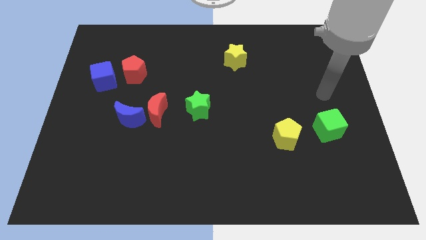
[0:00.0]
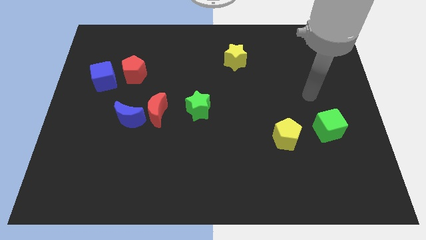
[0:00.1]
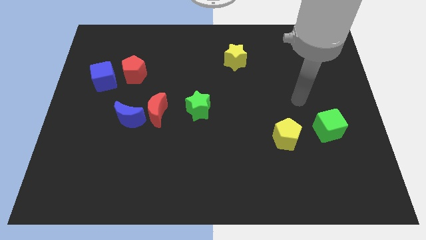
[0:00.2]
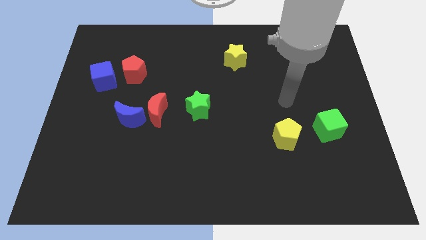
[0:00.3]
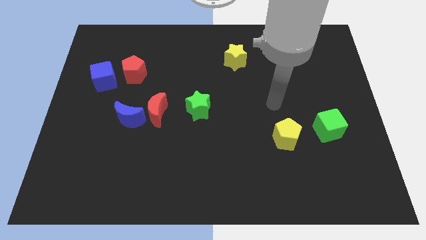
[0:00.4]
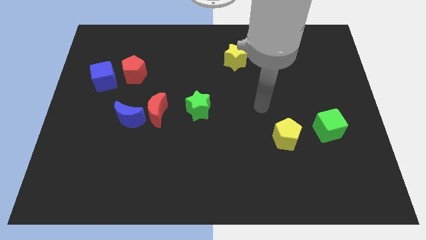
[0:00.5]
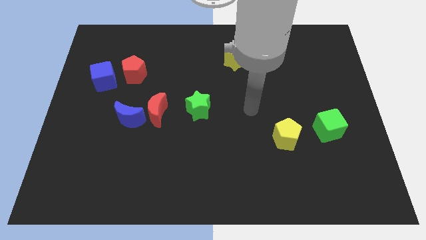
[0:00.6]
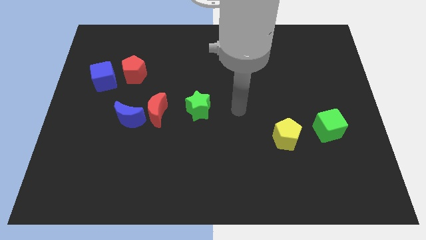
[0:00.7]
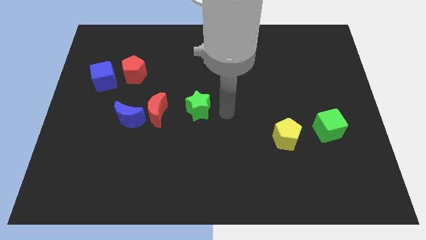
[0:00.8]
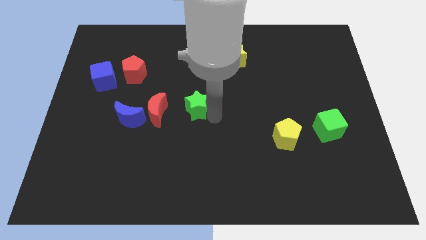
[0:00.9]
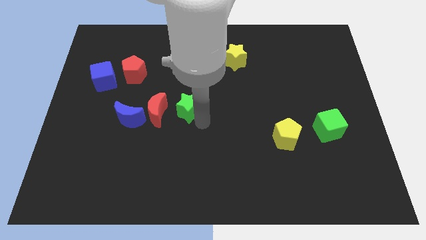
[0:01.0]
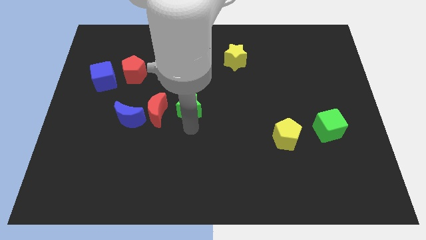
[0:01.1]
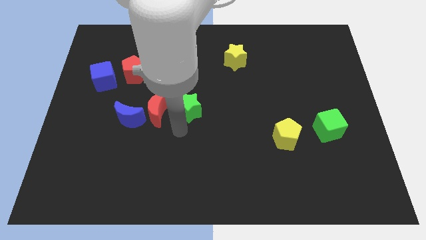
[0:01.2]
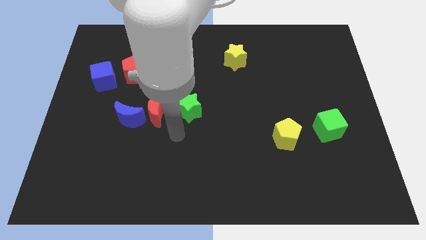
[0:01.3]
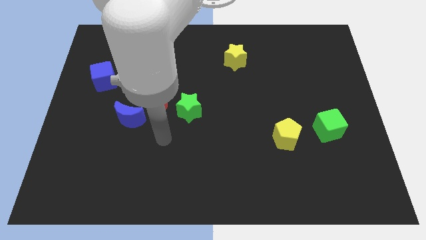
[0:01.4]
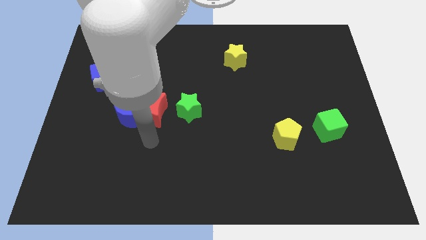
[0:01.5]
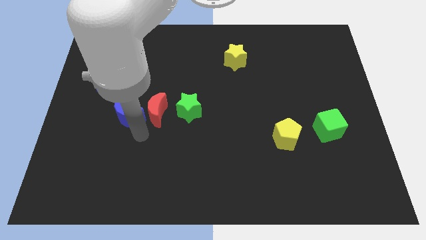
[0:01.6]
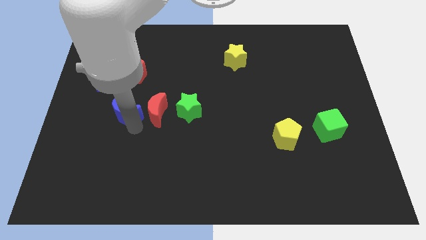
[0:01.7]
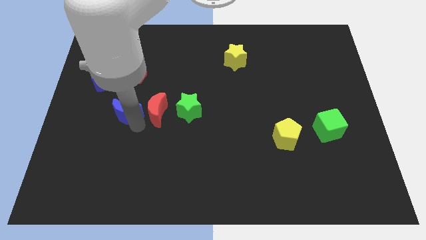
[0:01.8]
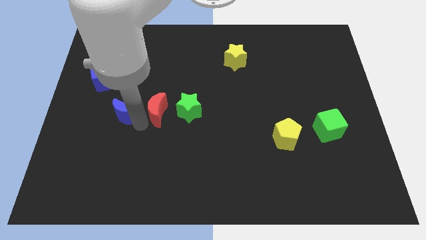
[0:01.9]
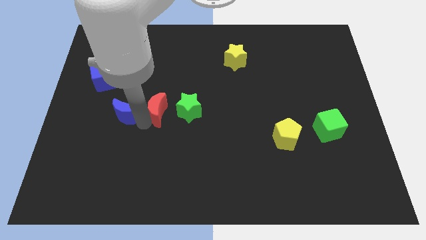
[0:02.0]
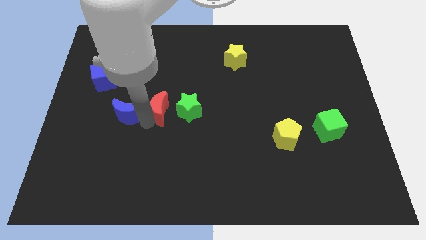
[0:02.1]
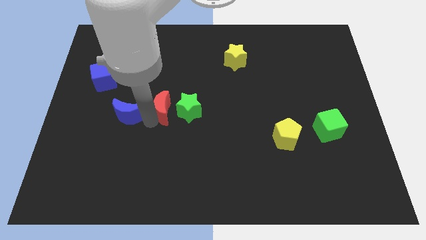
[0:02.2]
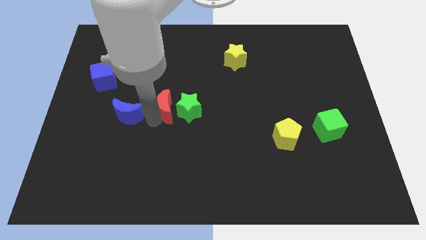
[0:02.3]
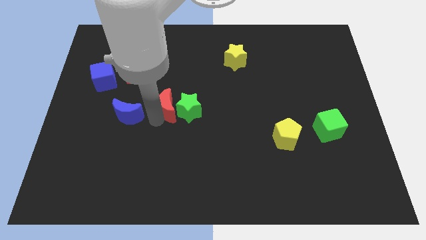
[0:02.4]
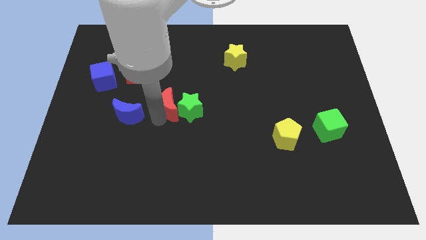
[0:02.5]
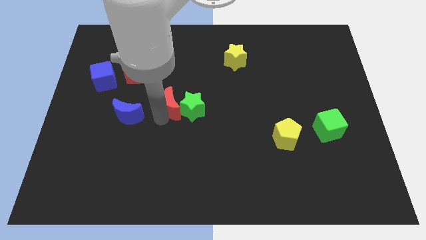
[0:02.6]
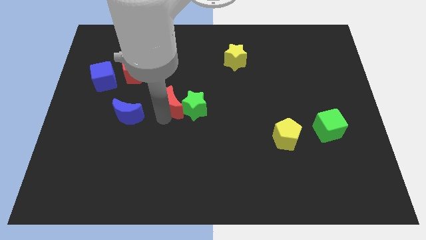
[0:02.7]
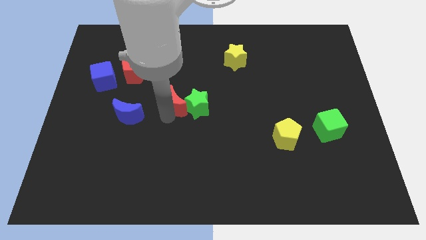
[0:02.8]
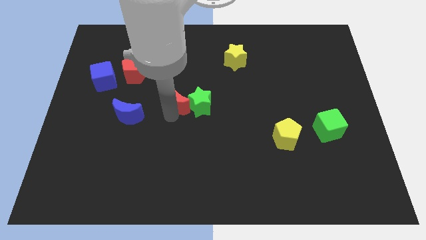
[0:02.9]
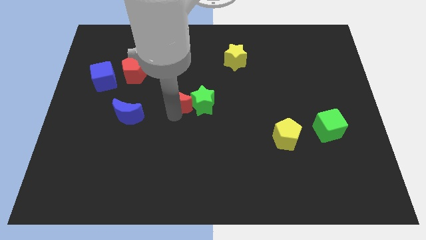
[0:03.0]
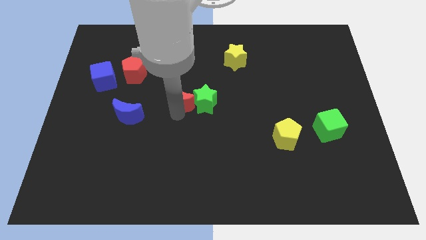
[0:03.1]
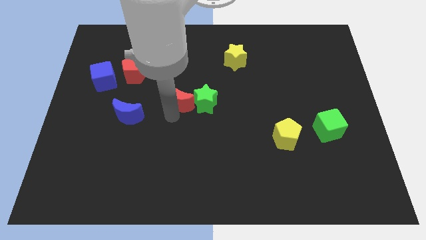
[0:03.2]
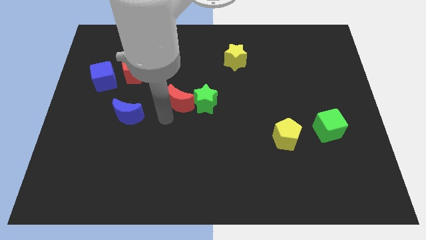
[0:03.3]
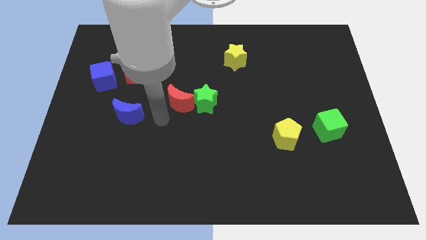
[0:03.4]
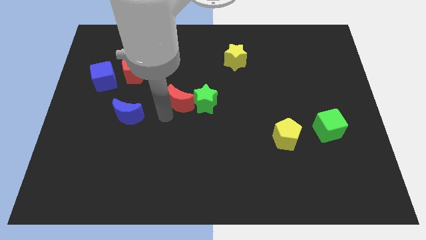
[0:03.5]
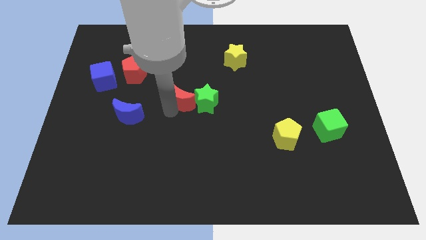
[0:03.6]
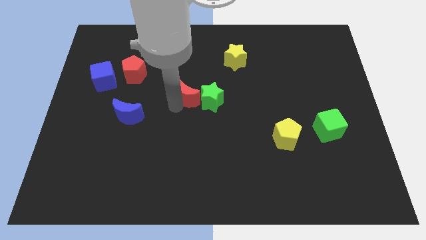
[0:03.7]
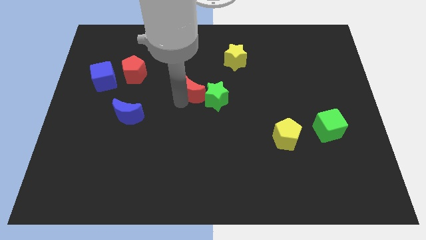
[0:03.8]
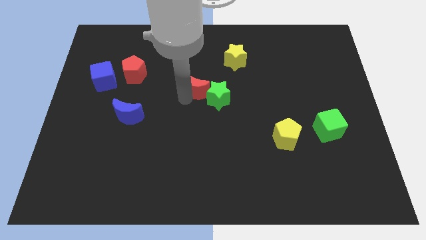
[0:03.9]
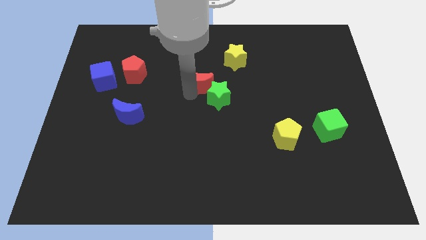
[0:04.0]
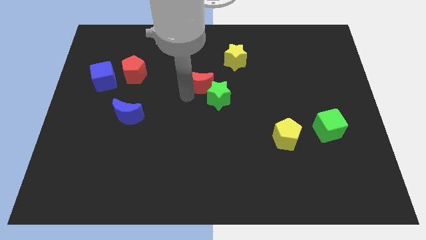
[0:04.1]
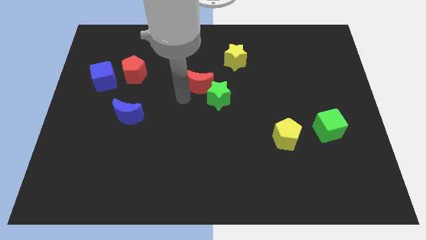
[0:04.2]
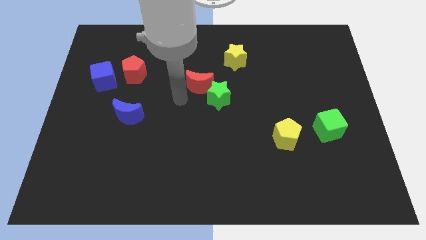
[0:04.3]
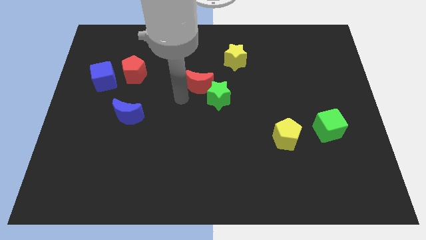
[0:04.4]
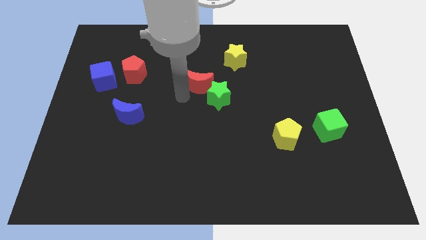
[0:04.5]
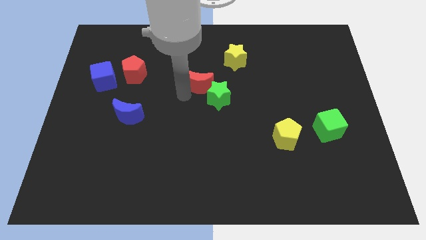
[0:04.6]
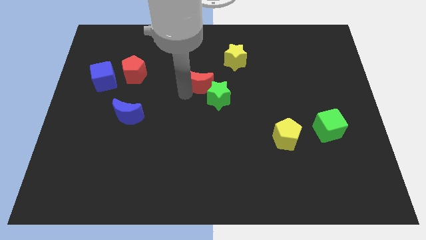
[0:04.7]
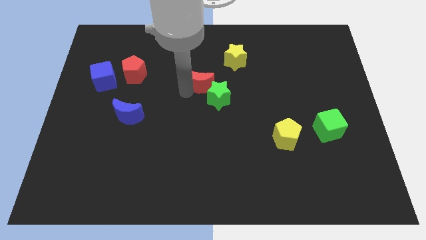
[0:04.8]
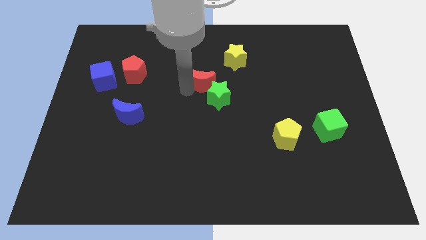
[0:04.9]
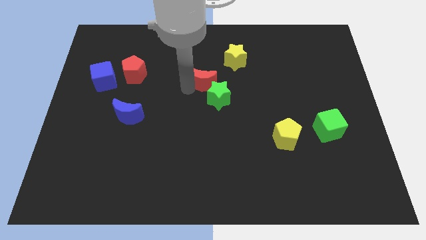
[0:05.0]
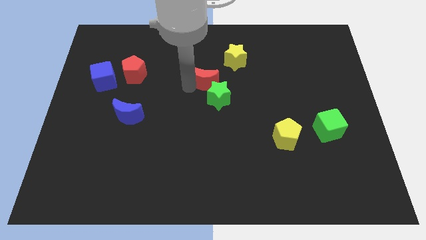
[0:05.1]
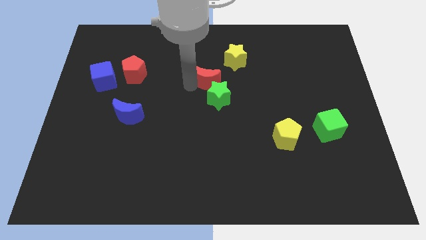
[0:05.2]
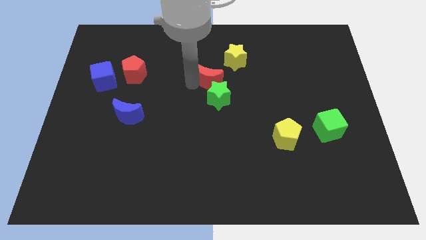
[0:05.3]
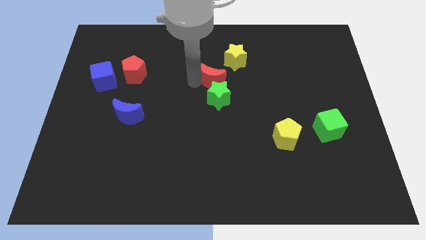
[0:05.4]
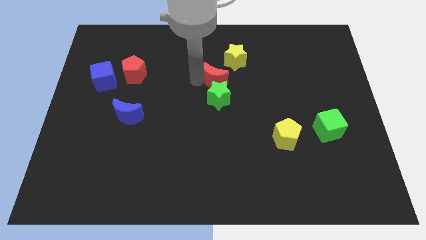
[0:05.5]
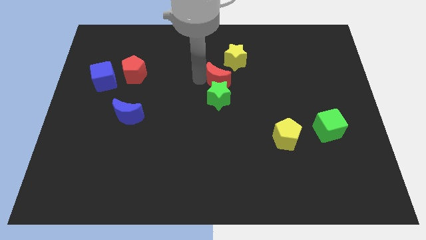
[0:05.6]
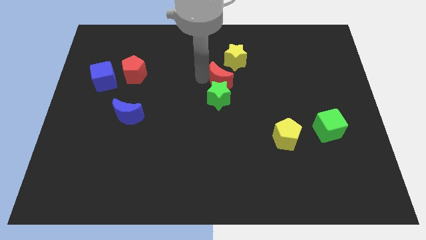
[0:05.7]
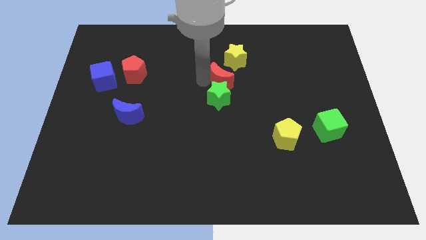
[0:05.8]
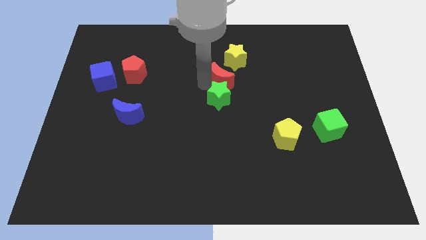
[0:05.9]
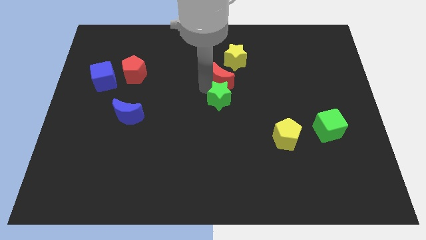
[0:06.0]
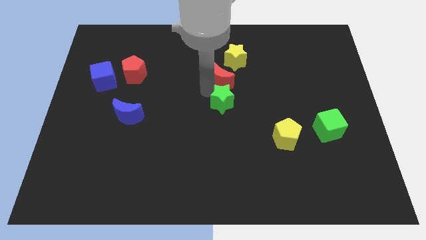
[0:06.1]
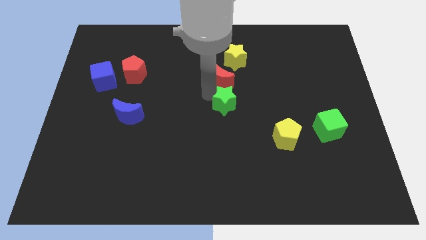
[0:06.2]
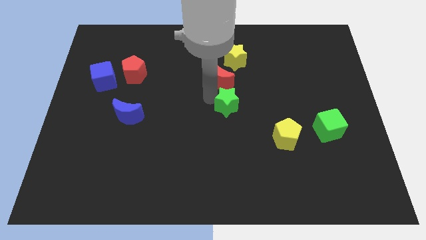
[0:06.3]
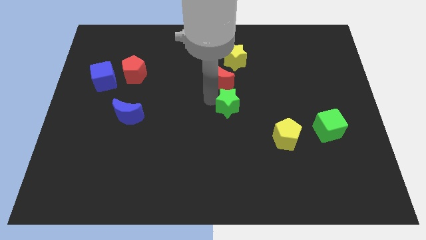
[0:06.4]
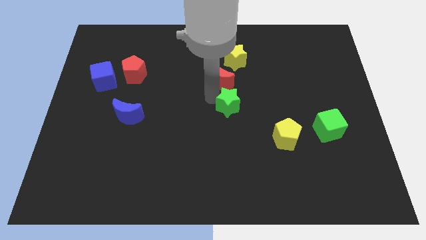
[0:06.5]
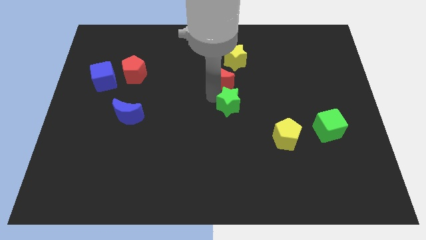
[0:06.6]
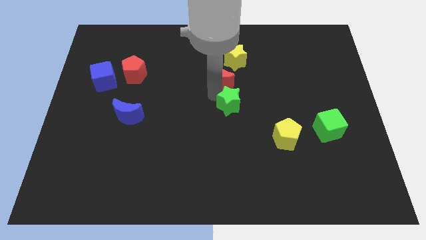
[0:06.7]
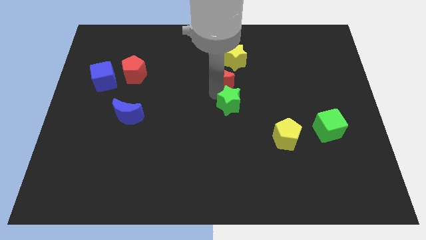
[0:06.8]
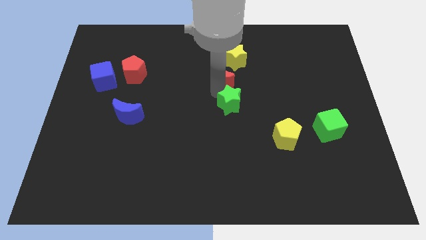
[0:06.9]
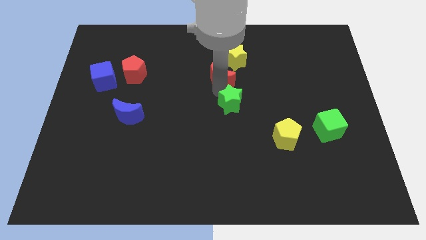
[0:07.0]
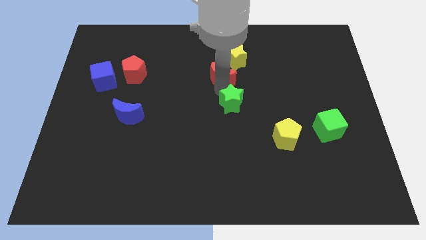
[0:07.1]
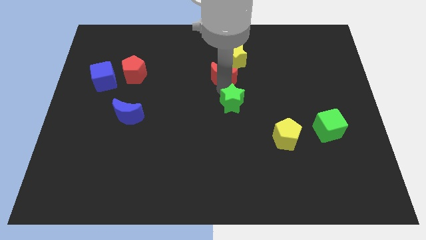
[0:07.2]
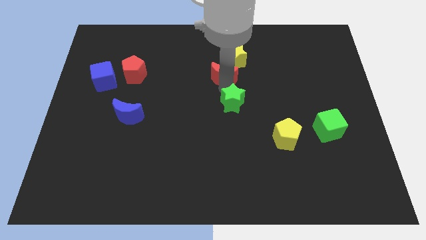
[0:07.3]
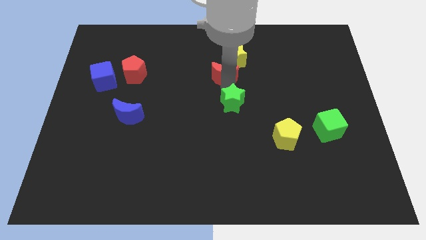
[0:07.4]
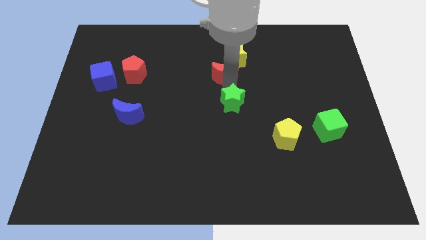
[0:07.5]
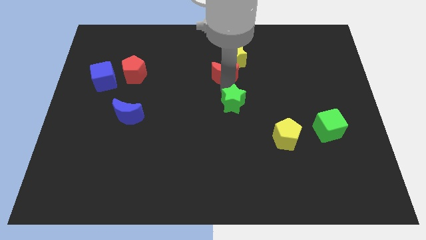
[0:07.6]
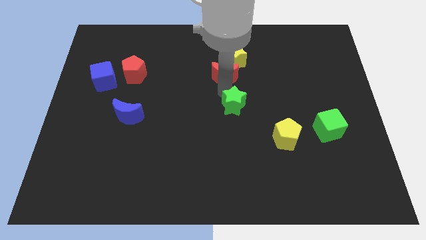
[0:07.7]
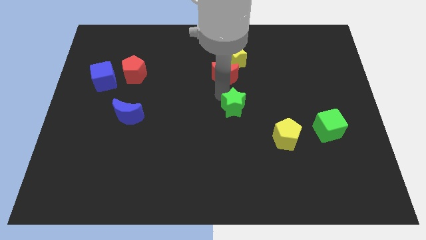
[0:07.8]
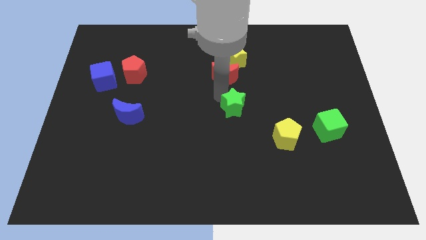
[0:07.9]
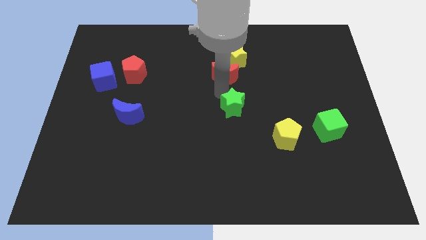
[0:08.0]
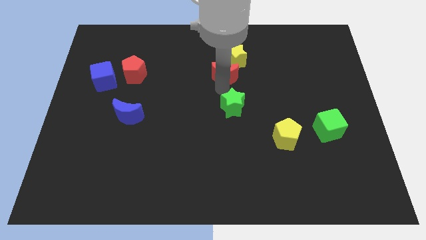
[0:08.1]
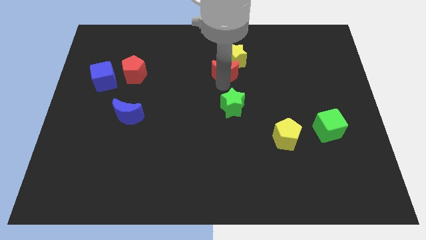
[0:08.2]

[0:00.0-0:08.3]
put the red moon next to the yellow star

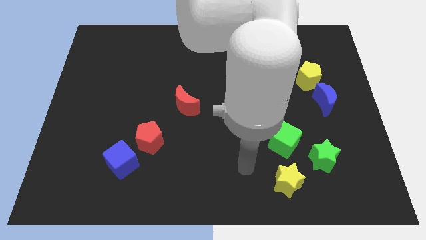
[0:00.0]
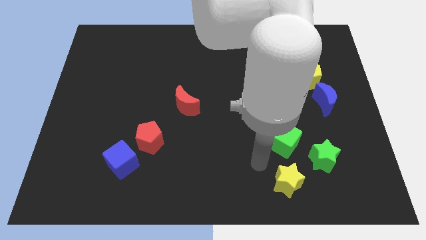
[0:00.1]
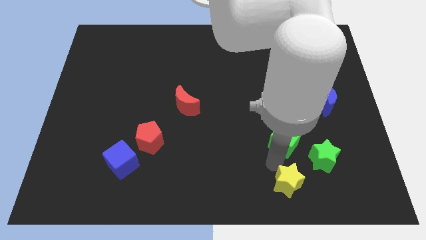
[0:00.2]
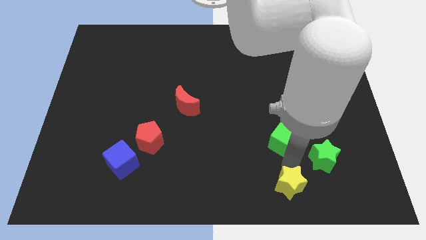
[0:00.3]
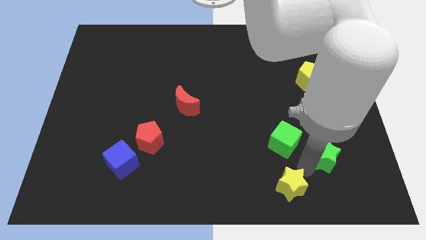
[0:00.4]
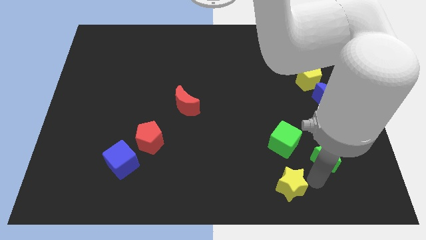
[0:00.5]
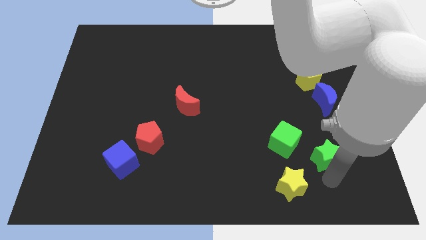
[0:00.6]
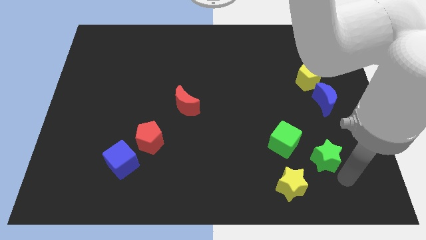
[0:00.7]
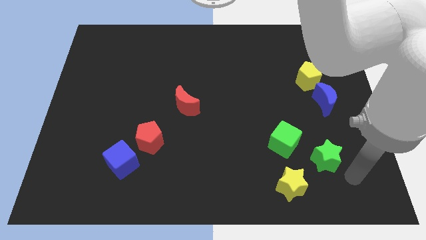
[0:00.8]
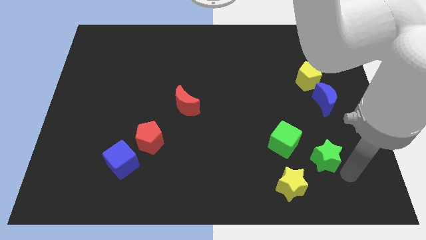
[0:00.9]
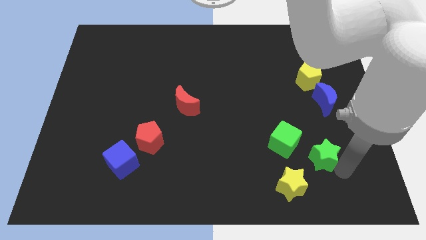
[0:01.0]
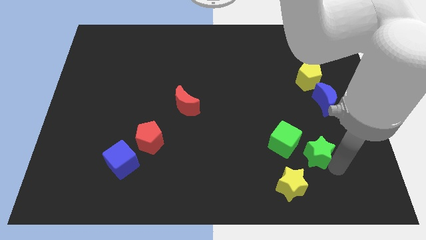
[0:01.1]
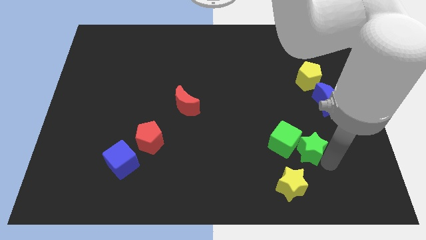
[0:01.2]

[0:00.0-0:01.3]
push the green star to the green cube
